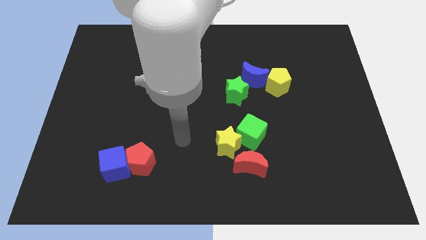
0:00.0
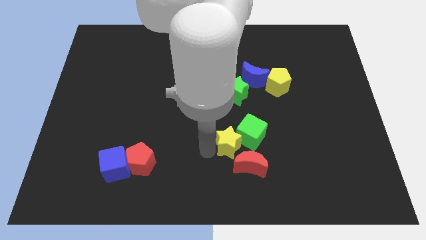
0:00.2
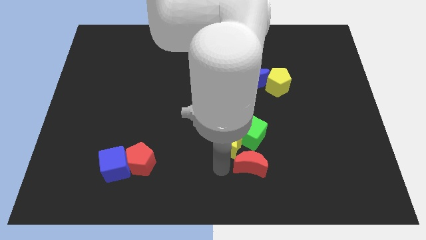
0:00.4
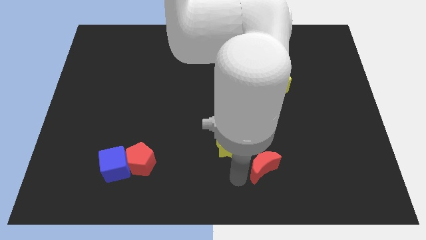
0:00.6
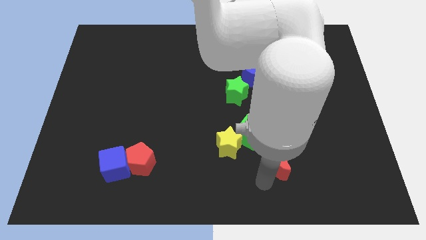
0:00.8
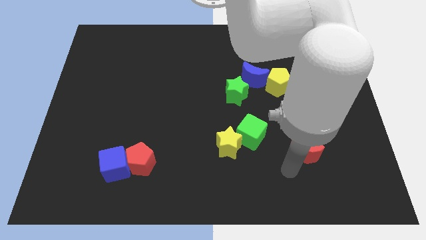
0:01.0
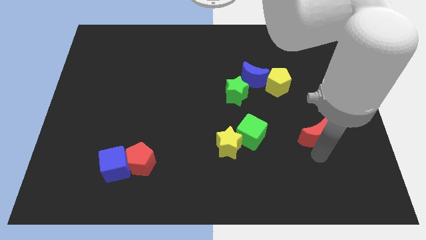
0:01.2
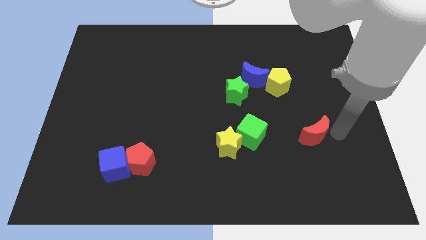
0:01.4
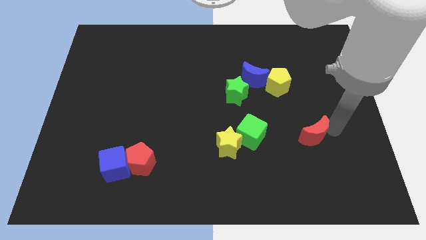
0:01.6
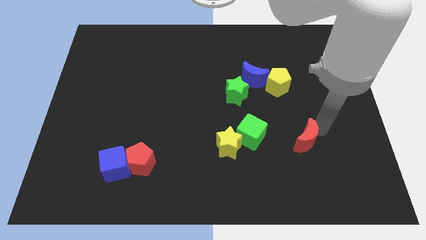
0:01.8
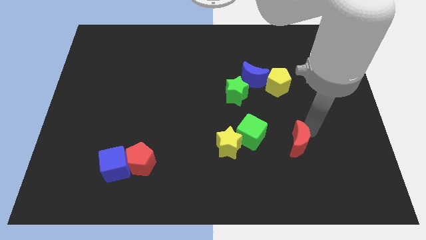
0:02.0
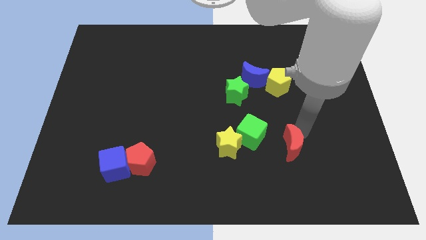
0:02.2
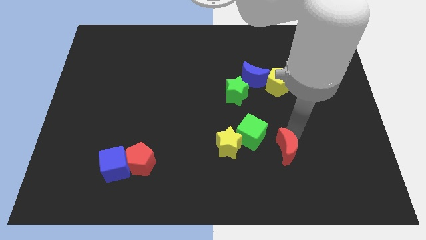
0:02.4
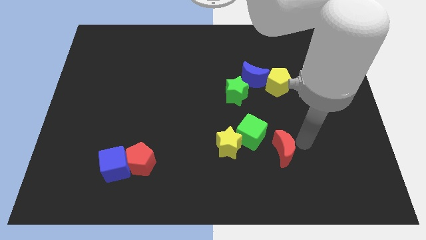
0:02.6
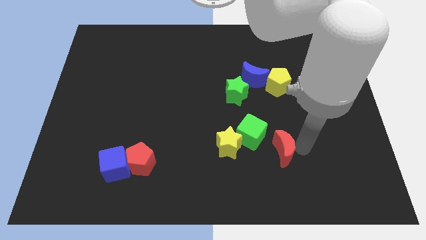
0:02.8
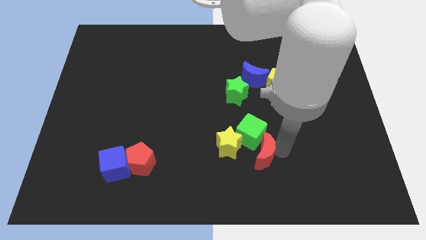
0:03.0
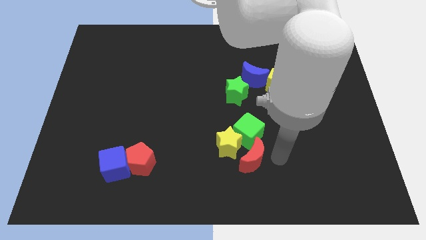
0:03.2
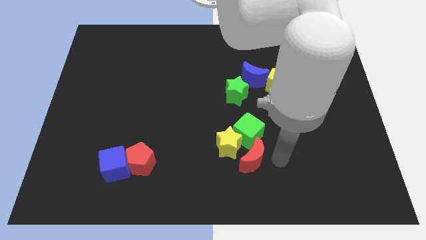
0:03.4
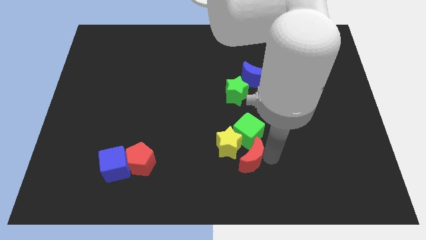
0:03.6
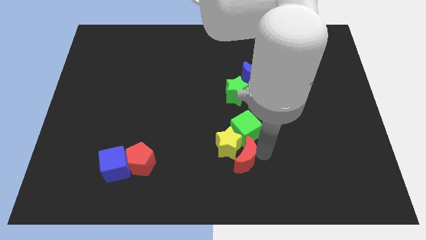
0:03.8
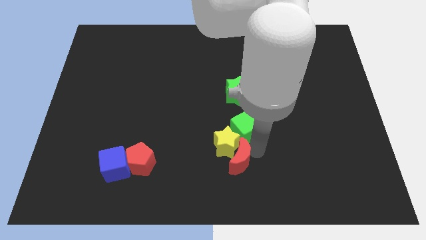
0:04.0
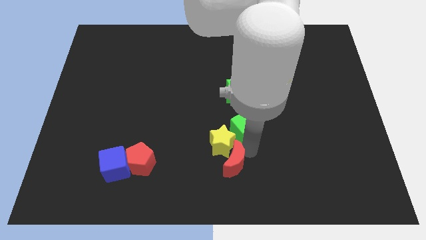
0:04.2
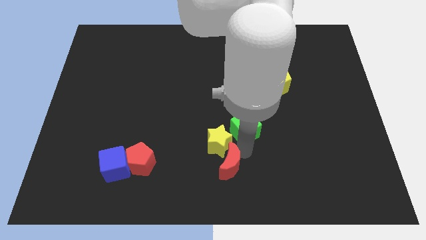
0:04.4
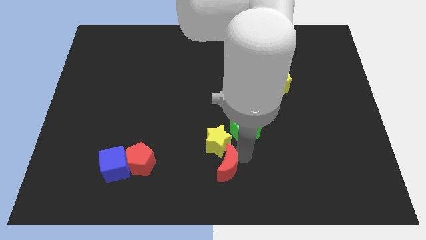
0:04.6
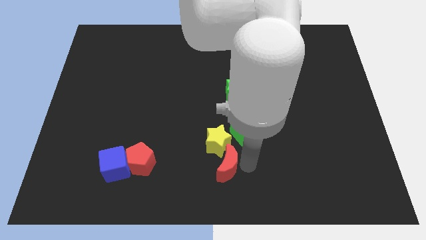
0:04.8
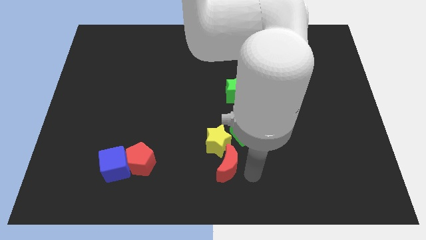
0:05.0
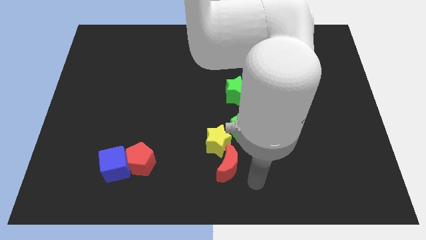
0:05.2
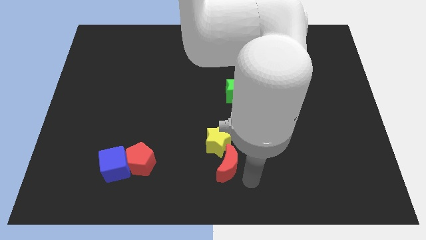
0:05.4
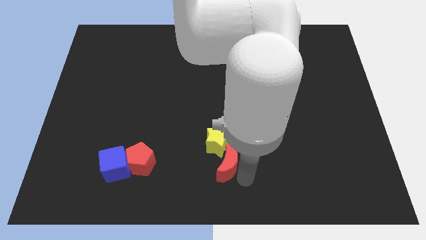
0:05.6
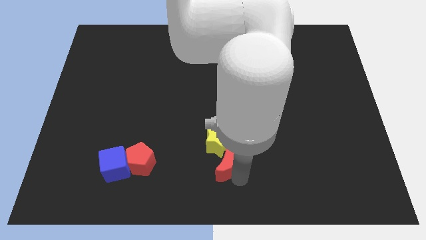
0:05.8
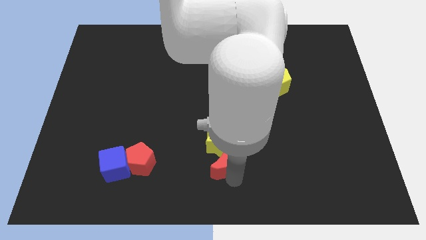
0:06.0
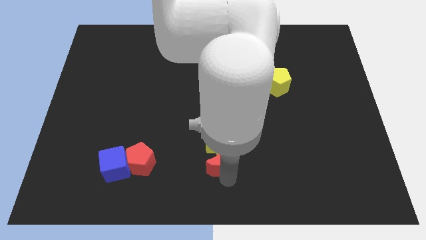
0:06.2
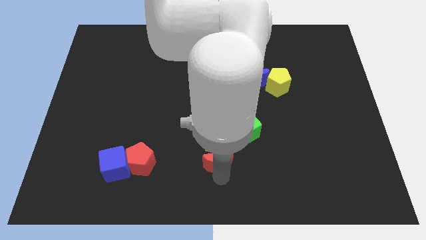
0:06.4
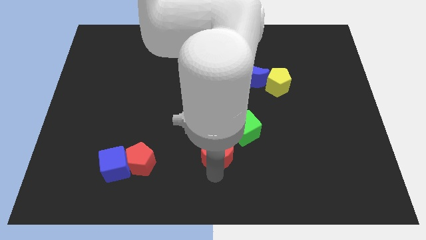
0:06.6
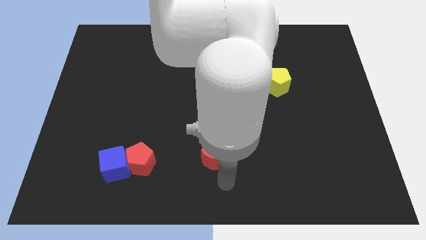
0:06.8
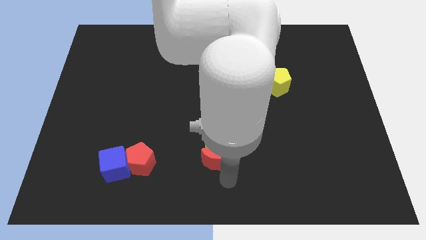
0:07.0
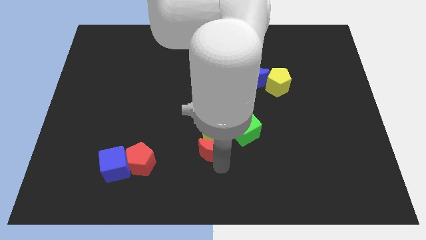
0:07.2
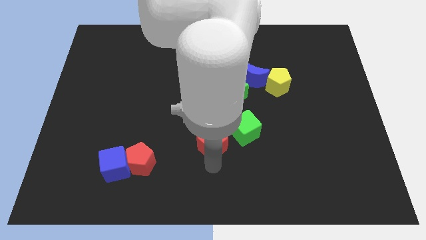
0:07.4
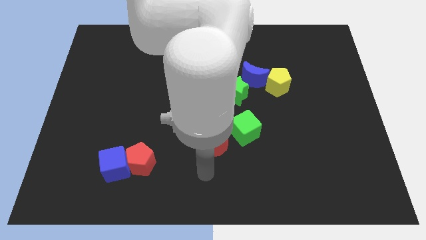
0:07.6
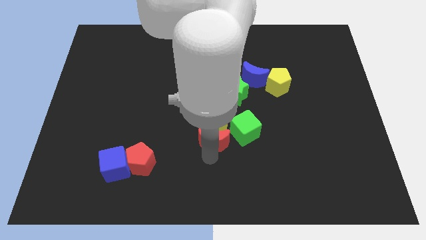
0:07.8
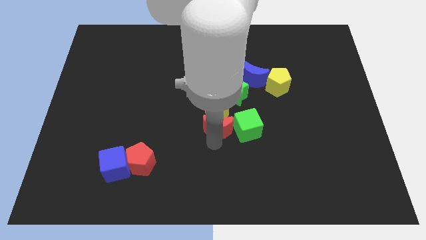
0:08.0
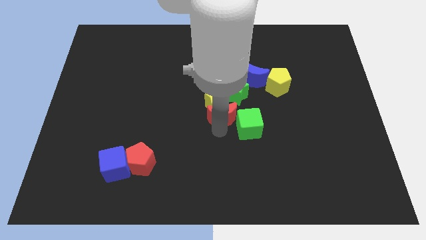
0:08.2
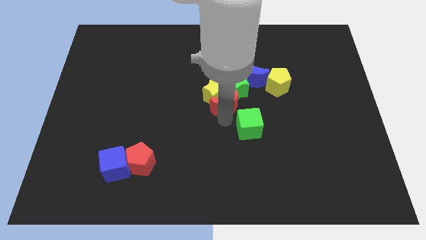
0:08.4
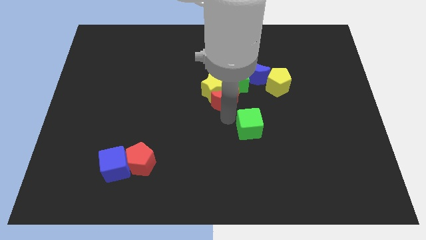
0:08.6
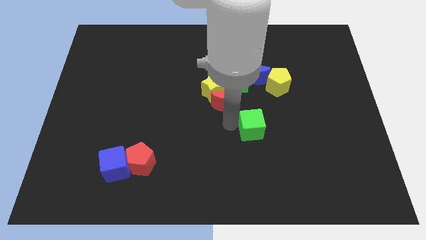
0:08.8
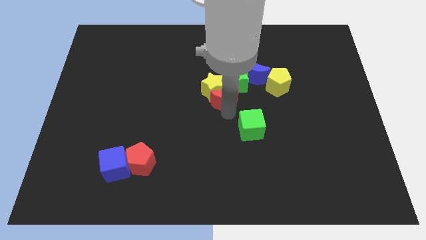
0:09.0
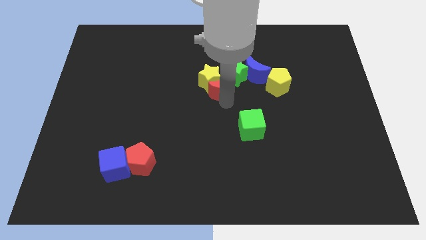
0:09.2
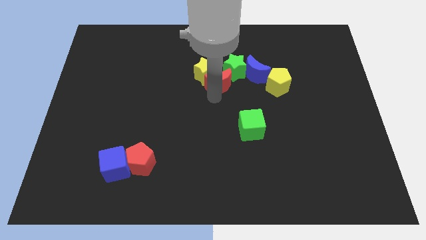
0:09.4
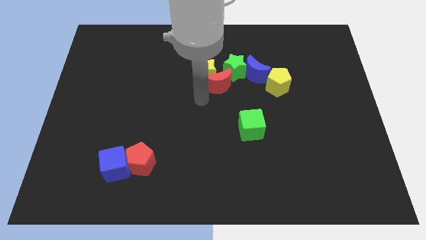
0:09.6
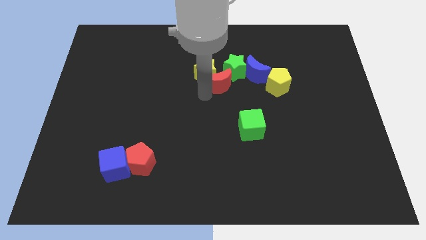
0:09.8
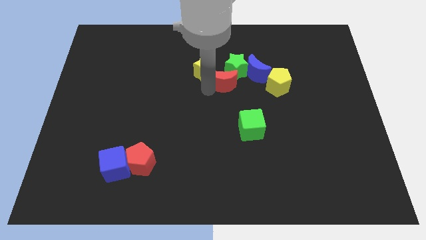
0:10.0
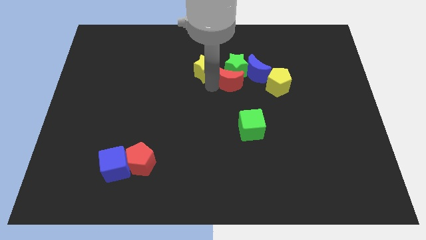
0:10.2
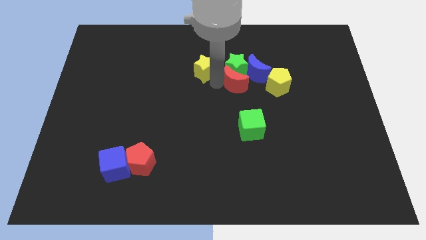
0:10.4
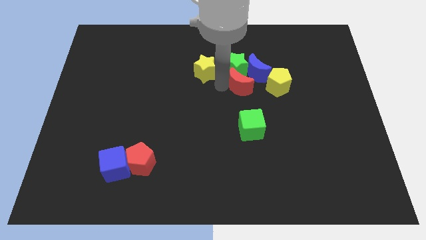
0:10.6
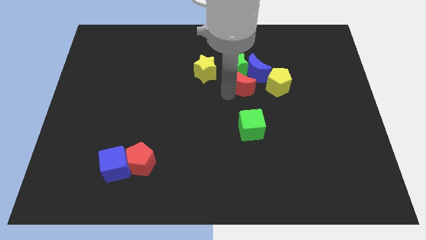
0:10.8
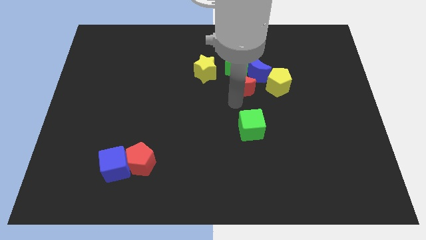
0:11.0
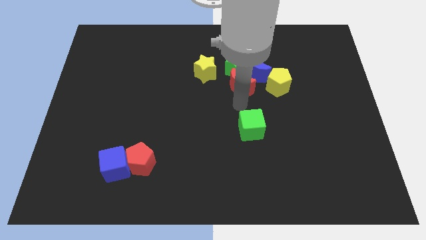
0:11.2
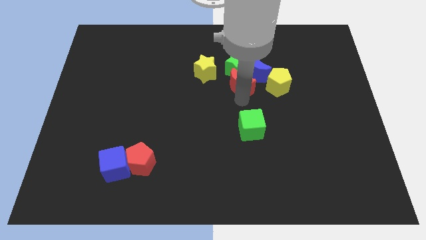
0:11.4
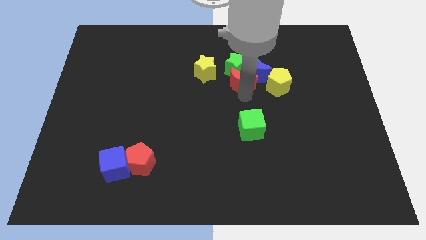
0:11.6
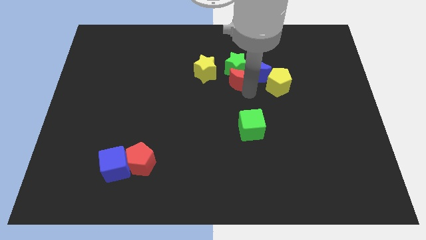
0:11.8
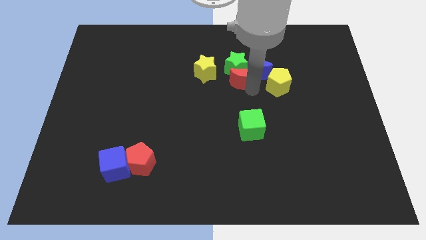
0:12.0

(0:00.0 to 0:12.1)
push the red moon to the top left of the yellow pentagon

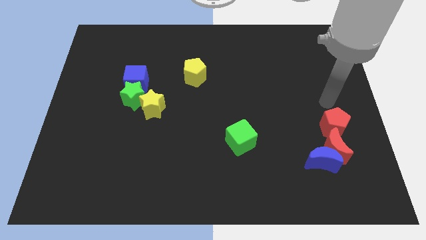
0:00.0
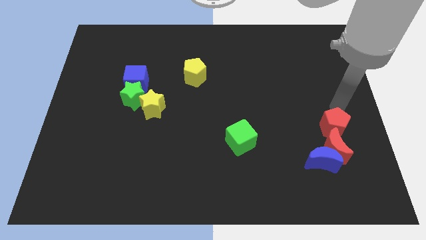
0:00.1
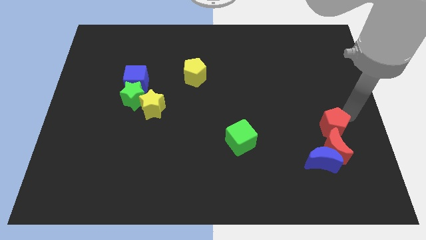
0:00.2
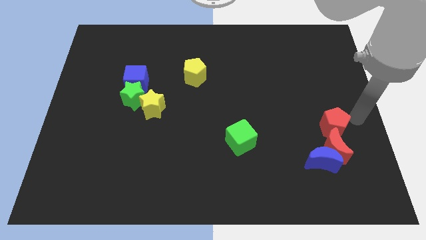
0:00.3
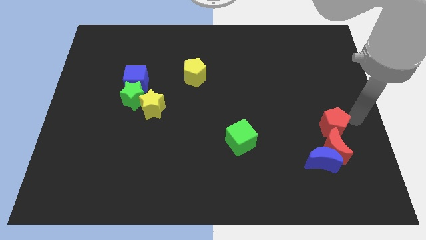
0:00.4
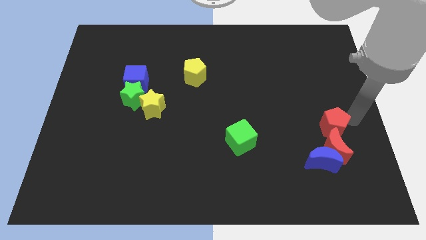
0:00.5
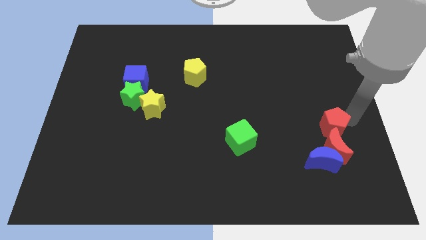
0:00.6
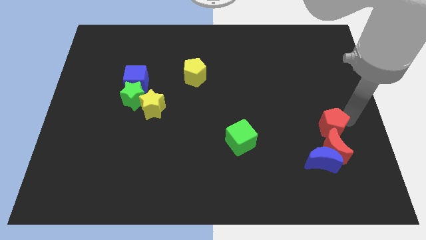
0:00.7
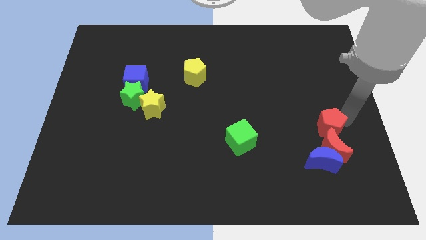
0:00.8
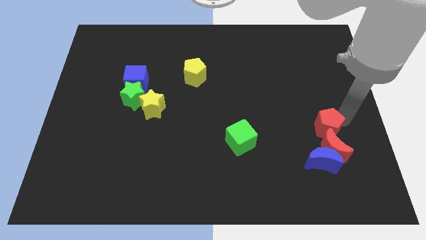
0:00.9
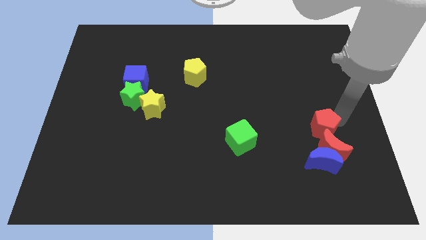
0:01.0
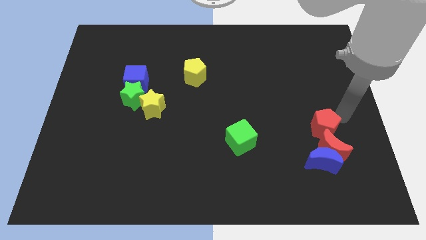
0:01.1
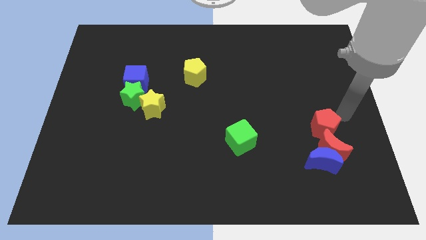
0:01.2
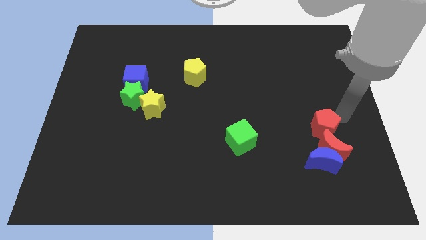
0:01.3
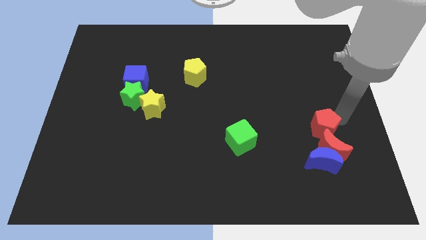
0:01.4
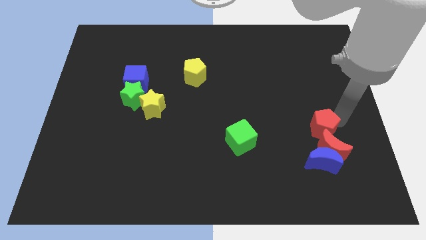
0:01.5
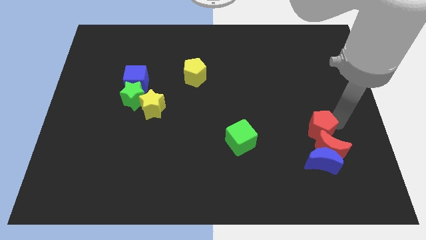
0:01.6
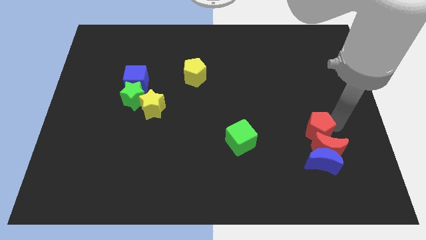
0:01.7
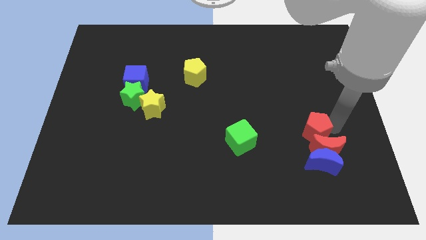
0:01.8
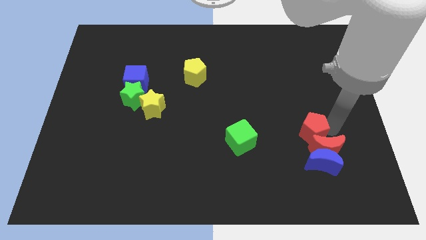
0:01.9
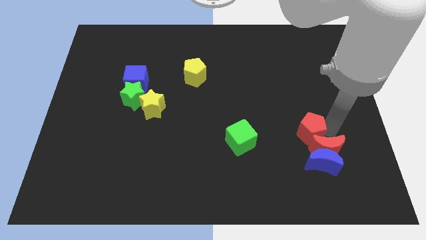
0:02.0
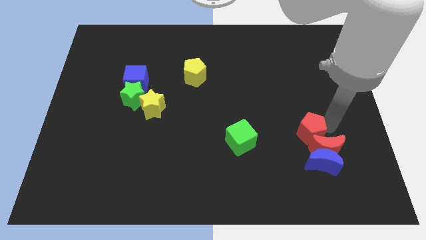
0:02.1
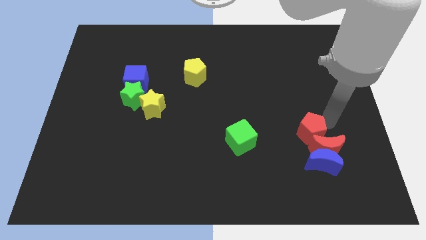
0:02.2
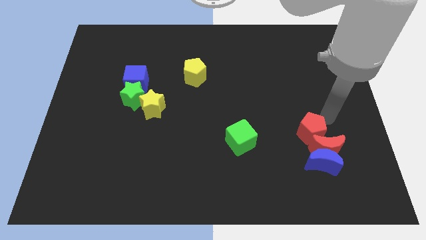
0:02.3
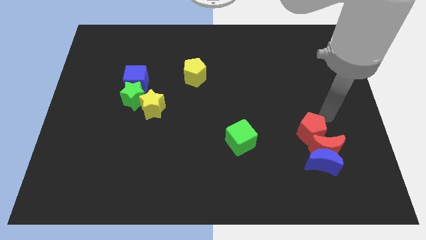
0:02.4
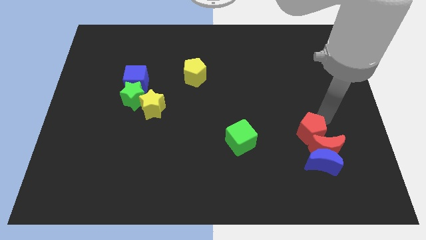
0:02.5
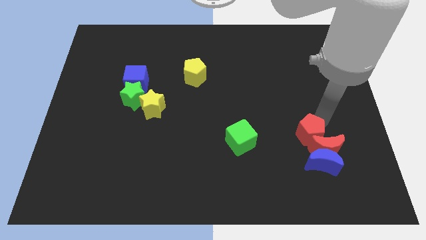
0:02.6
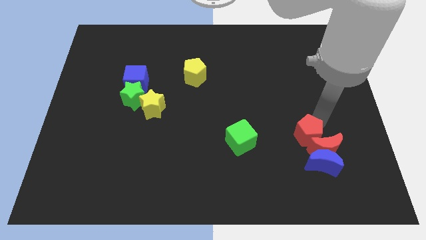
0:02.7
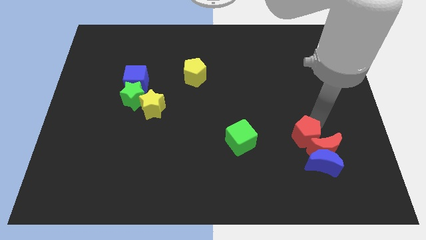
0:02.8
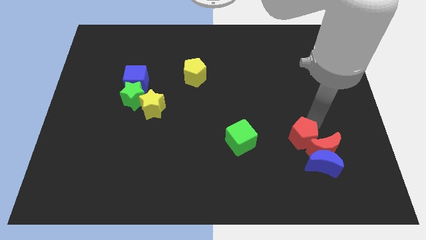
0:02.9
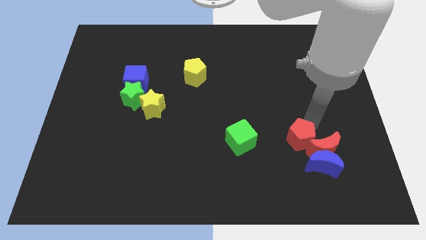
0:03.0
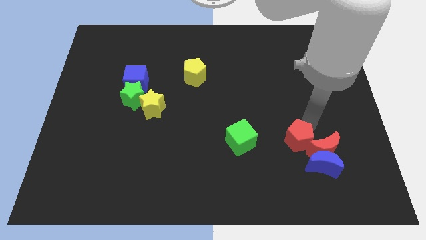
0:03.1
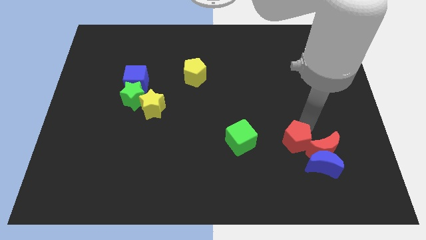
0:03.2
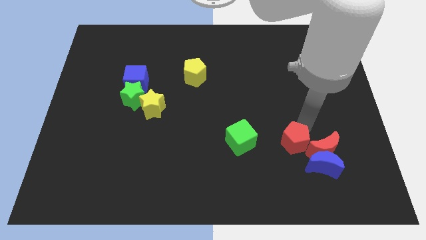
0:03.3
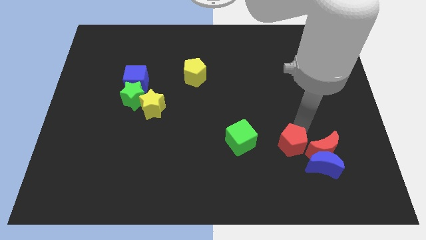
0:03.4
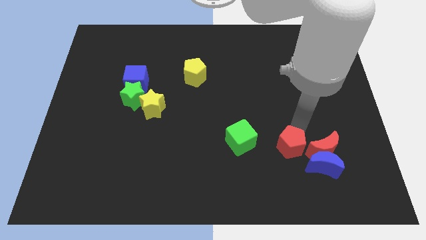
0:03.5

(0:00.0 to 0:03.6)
slide the red pentagon to the left side of the blue moon
